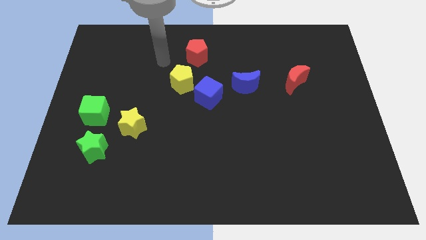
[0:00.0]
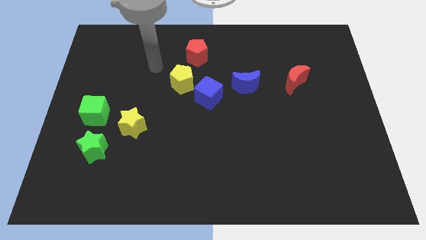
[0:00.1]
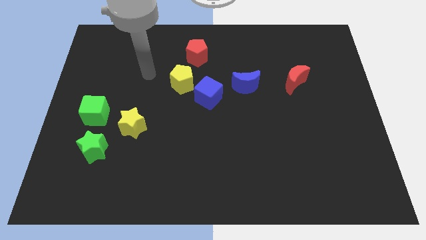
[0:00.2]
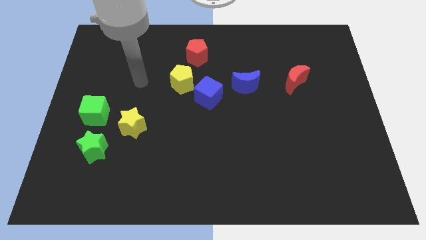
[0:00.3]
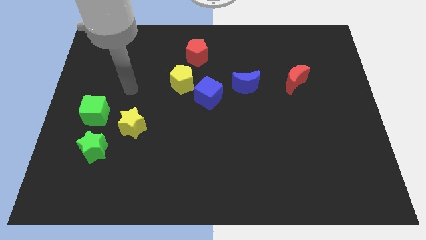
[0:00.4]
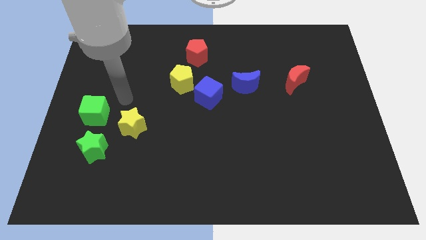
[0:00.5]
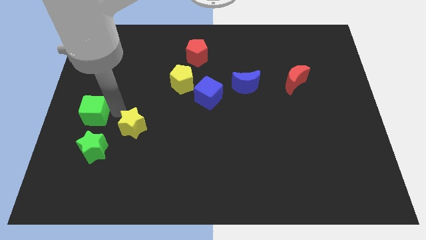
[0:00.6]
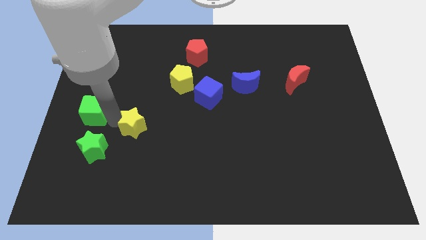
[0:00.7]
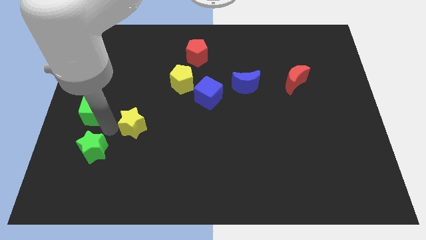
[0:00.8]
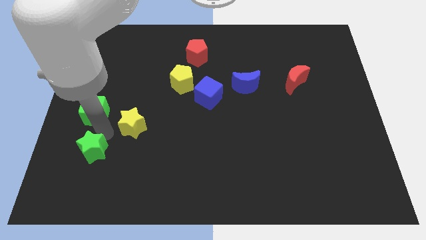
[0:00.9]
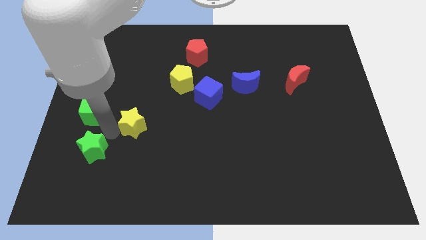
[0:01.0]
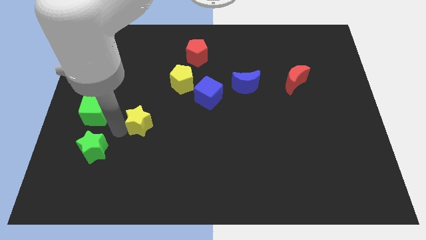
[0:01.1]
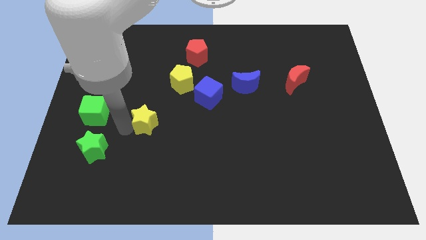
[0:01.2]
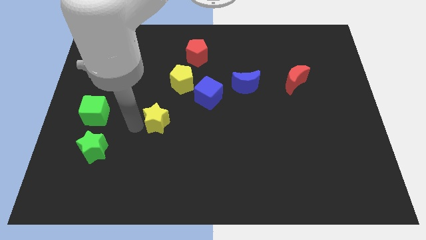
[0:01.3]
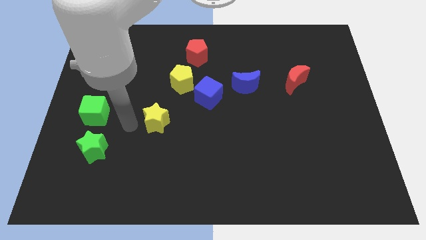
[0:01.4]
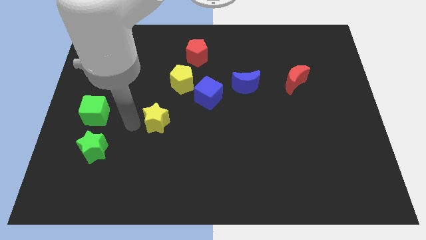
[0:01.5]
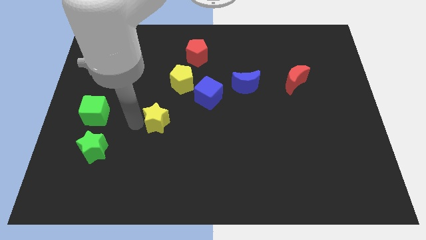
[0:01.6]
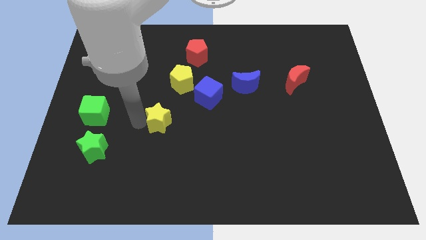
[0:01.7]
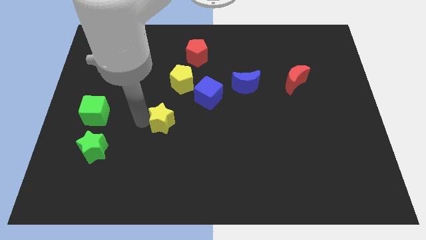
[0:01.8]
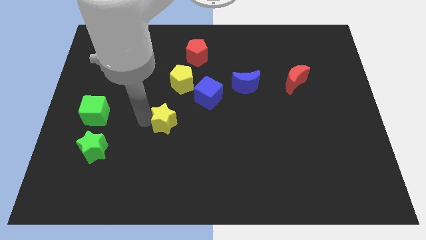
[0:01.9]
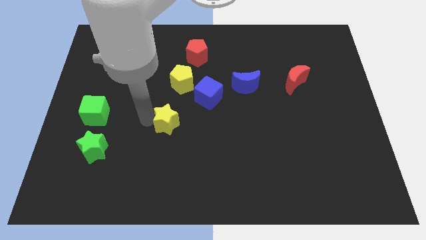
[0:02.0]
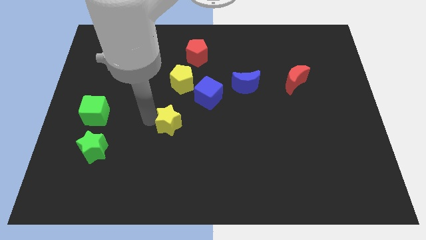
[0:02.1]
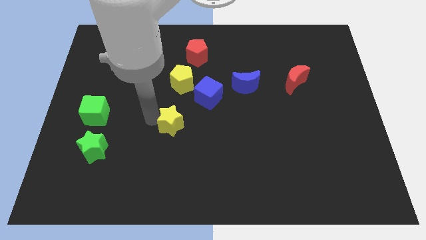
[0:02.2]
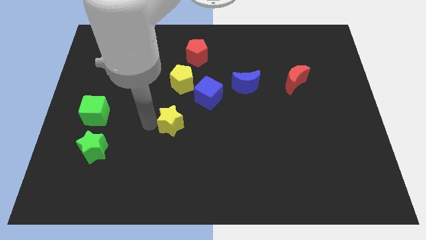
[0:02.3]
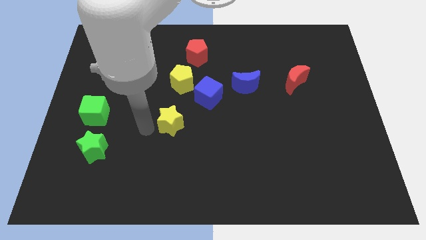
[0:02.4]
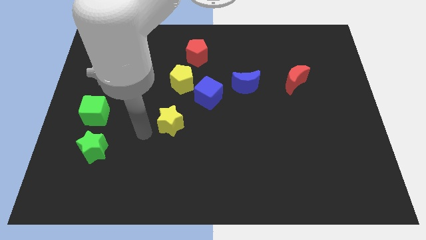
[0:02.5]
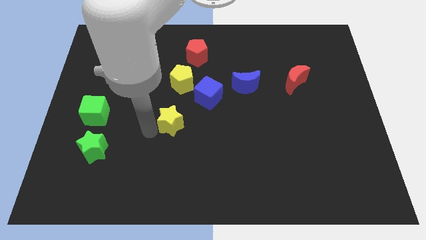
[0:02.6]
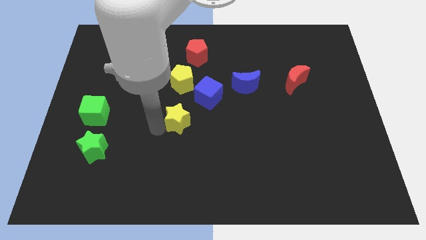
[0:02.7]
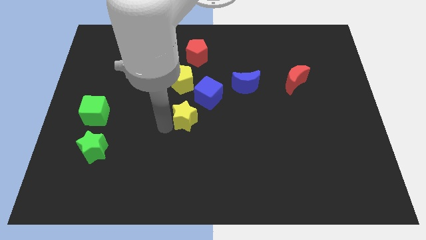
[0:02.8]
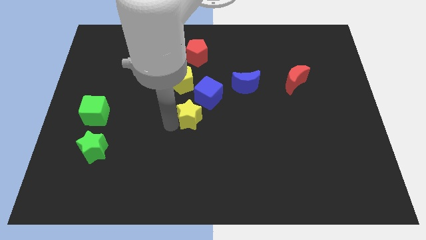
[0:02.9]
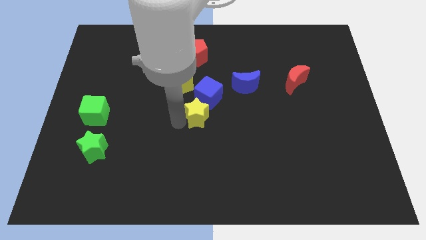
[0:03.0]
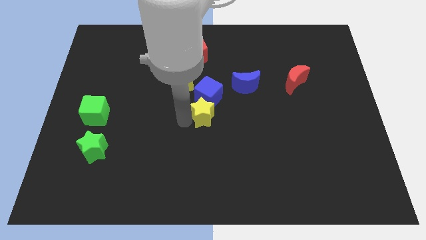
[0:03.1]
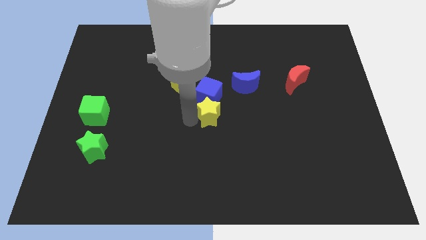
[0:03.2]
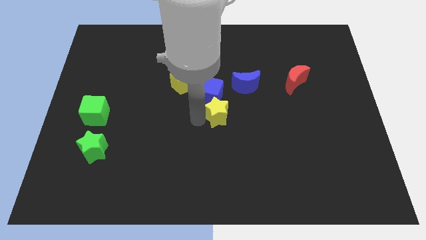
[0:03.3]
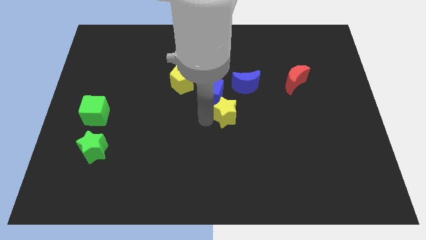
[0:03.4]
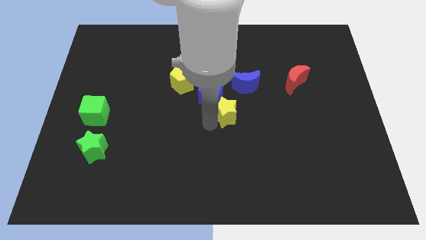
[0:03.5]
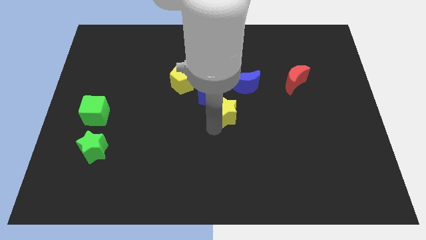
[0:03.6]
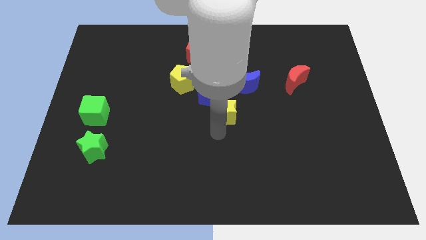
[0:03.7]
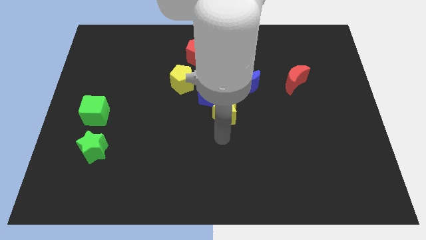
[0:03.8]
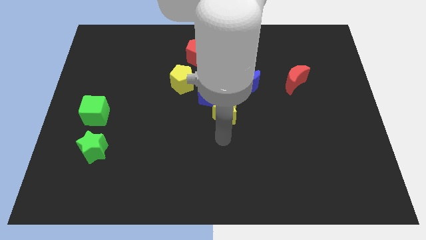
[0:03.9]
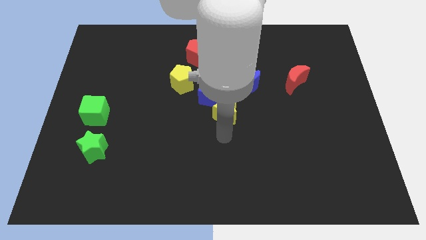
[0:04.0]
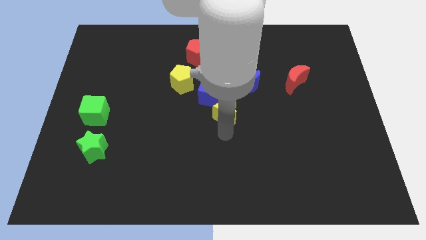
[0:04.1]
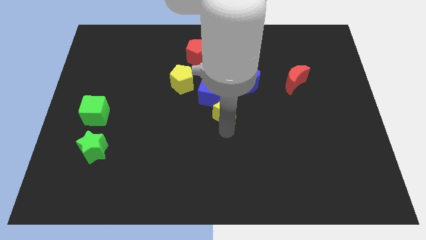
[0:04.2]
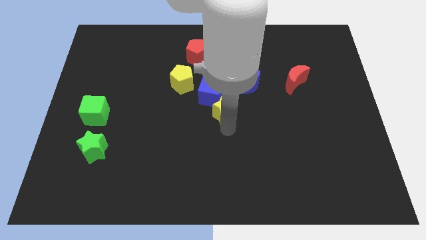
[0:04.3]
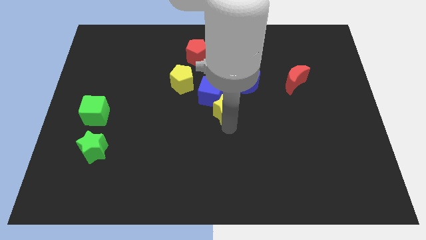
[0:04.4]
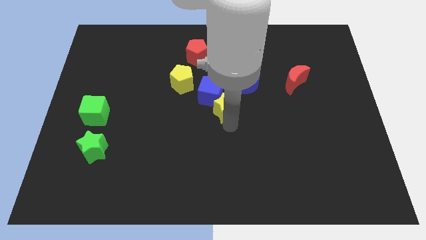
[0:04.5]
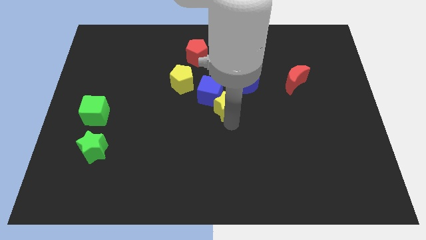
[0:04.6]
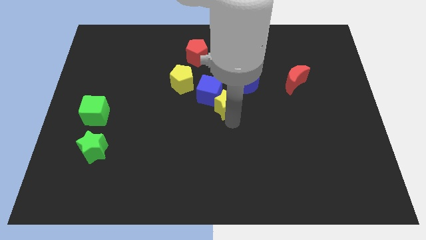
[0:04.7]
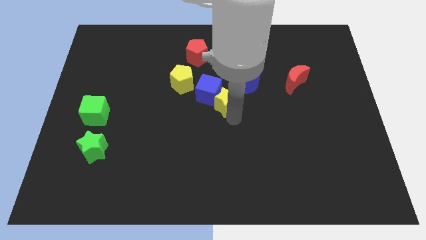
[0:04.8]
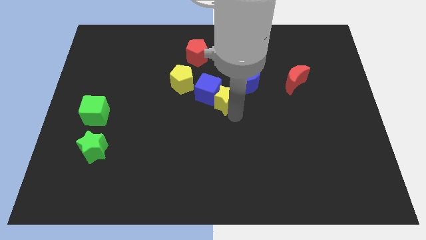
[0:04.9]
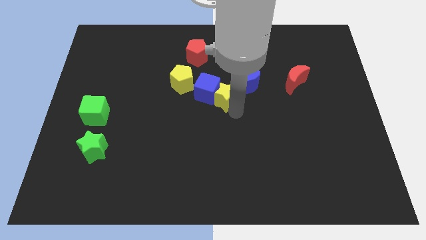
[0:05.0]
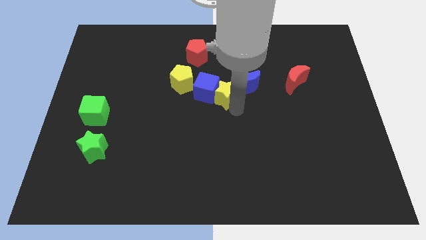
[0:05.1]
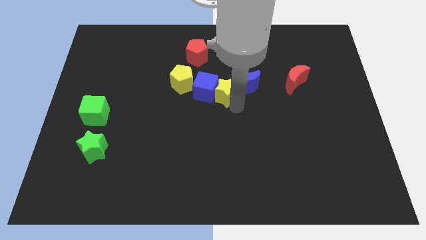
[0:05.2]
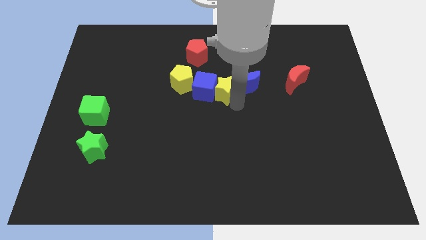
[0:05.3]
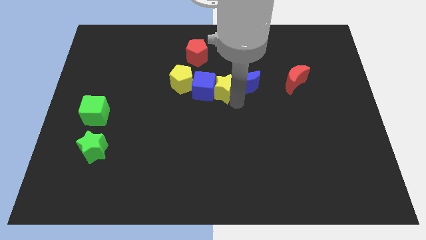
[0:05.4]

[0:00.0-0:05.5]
push the yellow star up and to the right diagonally

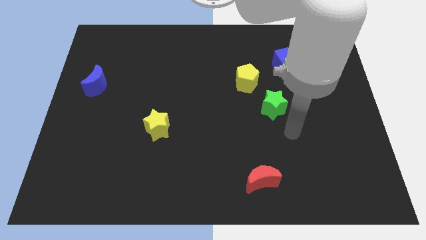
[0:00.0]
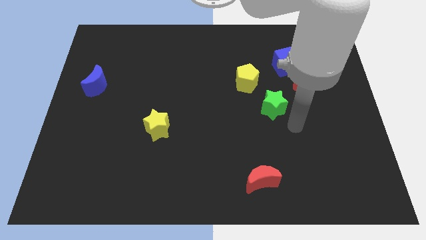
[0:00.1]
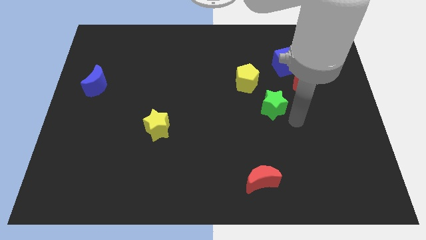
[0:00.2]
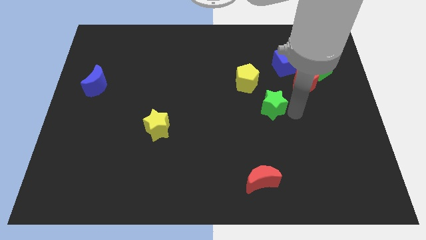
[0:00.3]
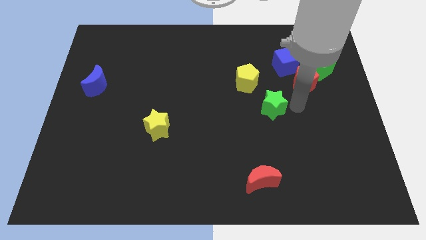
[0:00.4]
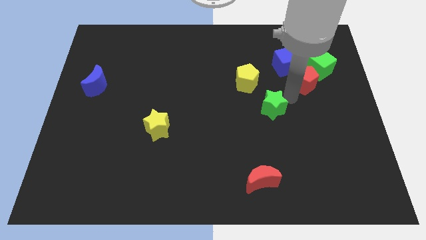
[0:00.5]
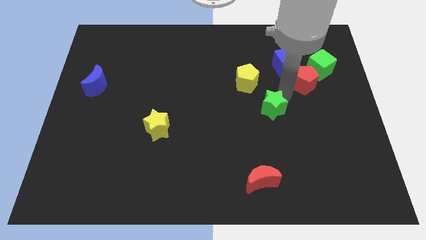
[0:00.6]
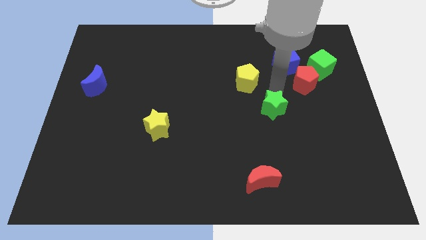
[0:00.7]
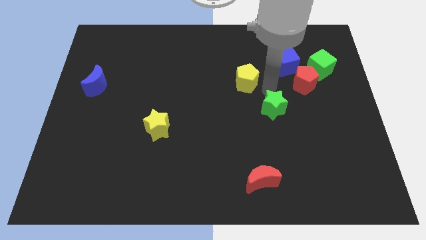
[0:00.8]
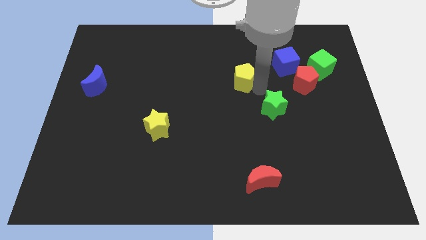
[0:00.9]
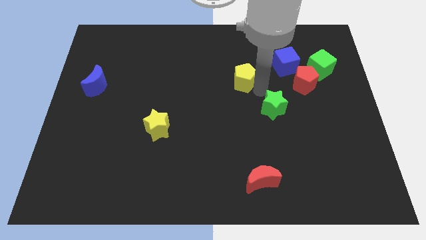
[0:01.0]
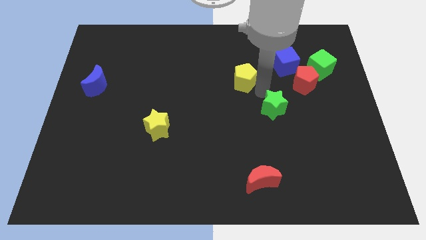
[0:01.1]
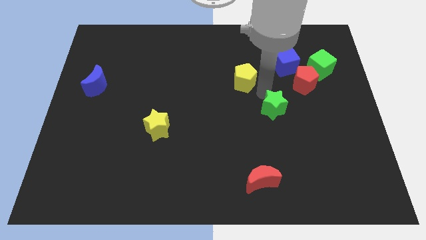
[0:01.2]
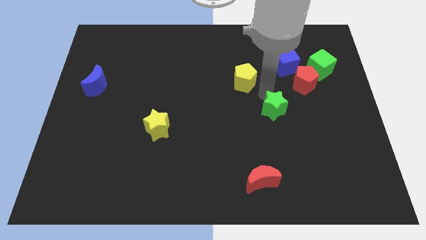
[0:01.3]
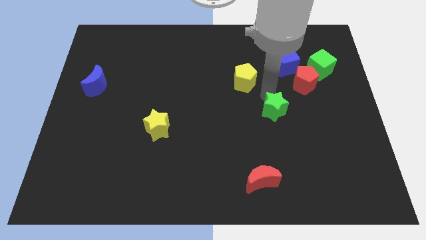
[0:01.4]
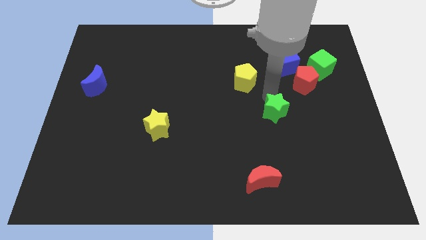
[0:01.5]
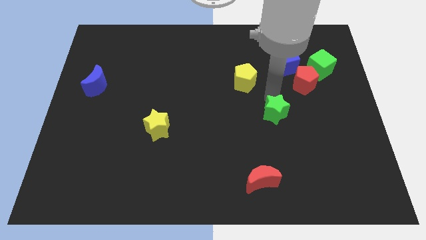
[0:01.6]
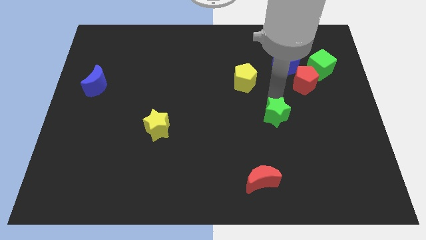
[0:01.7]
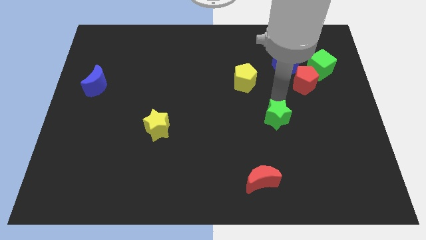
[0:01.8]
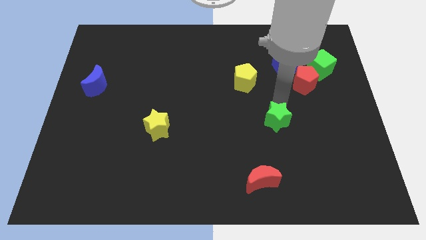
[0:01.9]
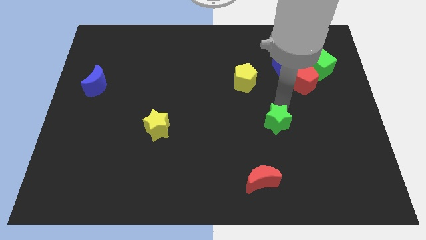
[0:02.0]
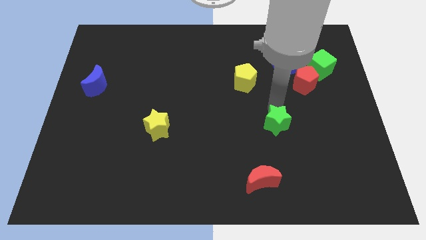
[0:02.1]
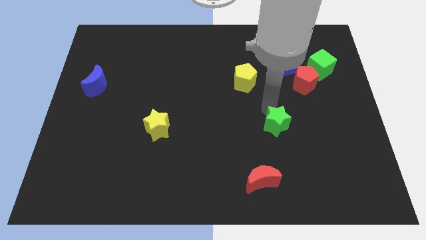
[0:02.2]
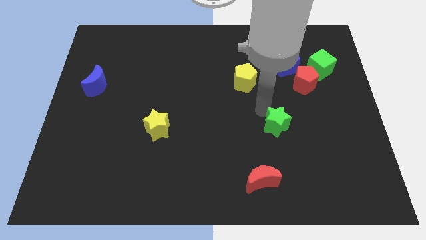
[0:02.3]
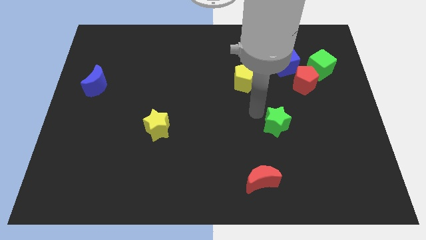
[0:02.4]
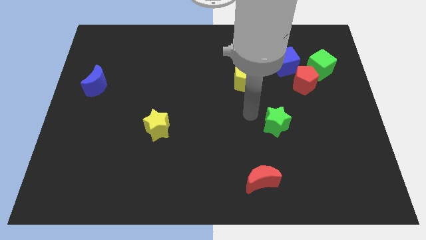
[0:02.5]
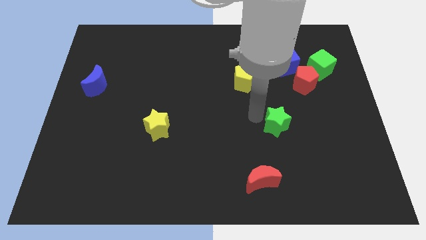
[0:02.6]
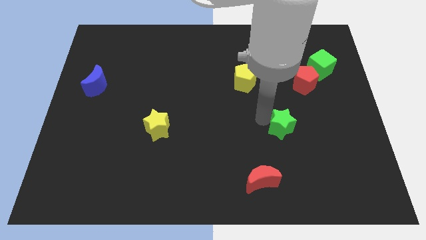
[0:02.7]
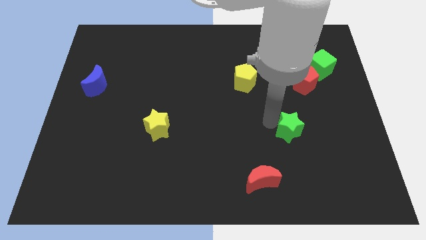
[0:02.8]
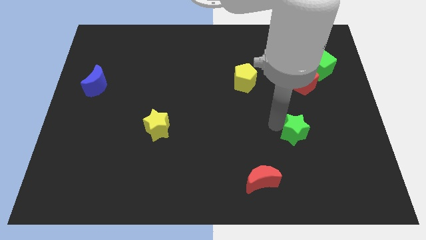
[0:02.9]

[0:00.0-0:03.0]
slightly push the green star down and then right
